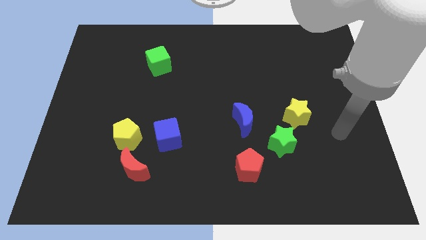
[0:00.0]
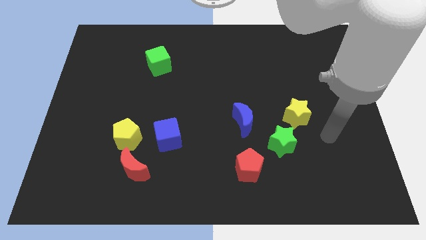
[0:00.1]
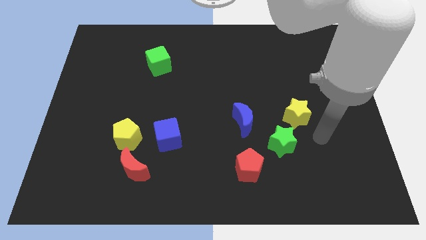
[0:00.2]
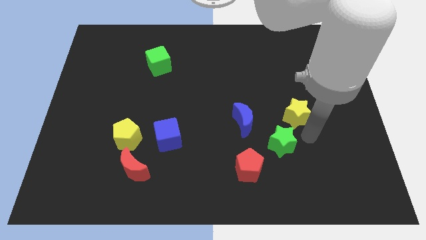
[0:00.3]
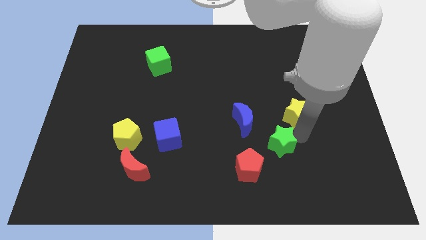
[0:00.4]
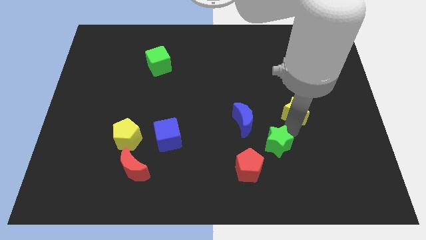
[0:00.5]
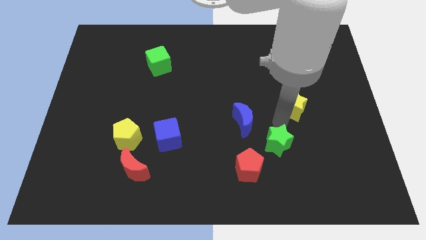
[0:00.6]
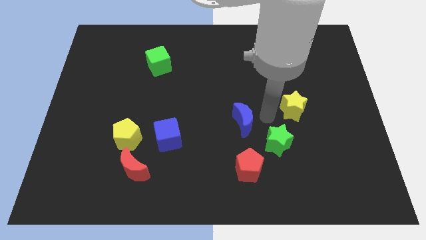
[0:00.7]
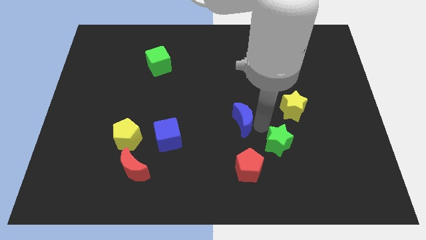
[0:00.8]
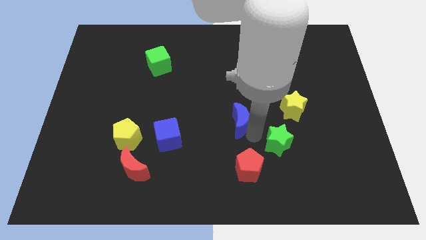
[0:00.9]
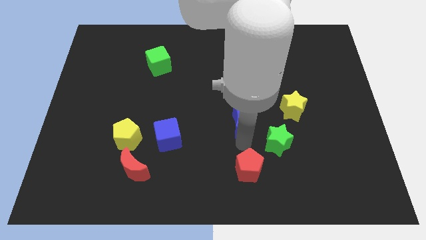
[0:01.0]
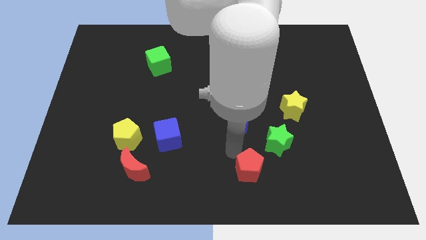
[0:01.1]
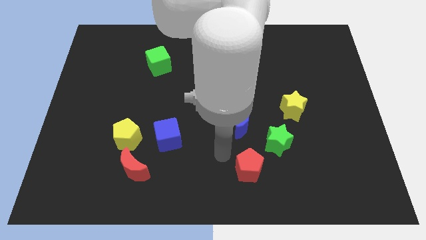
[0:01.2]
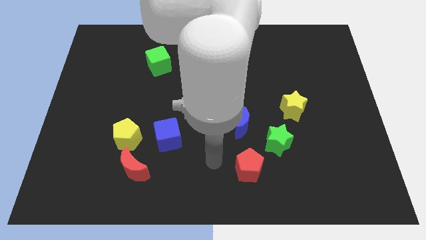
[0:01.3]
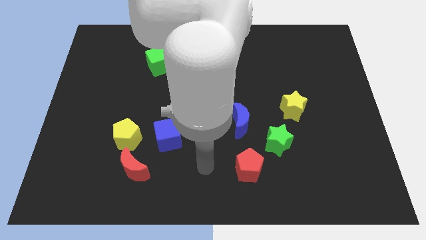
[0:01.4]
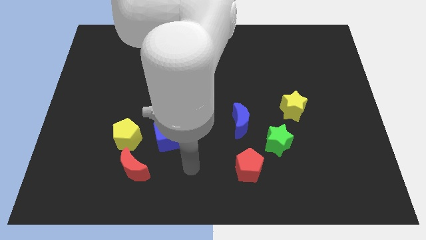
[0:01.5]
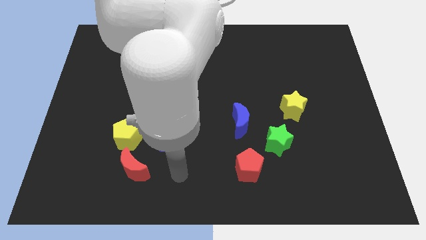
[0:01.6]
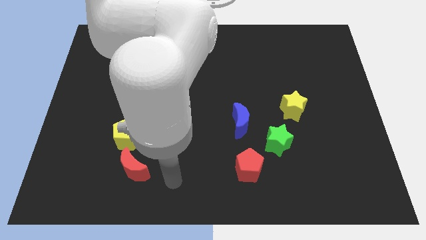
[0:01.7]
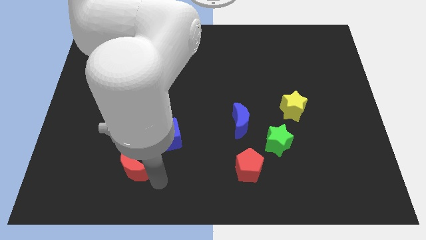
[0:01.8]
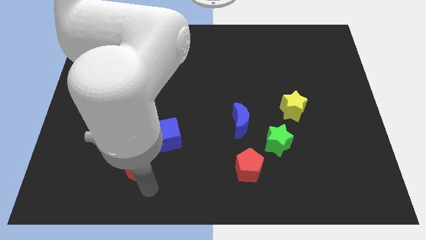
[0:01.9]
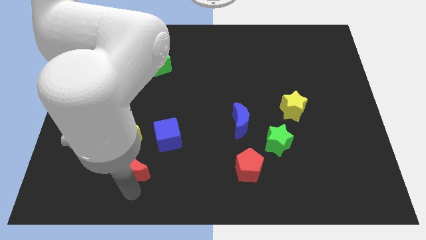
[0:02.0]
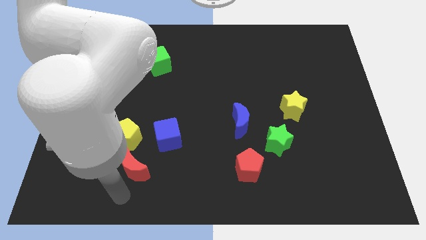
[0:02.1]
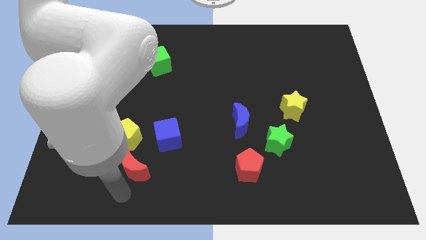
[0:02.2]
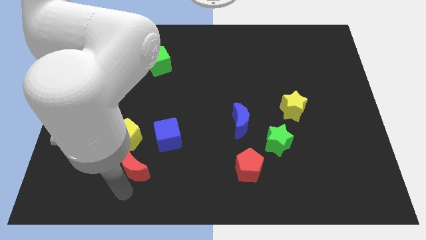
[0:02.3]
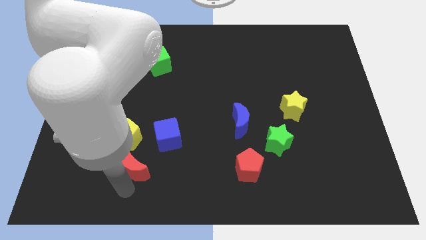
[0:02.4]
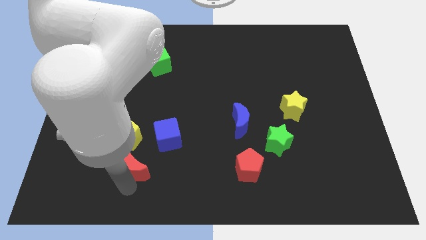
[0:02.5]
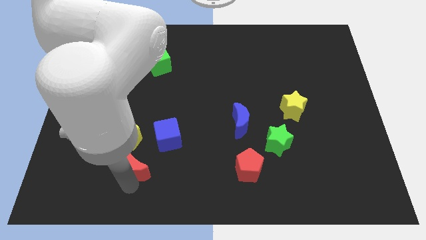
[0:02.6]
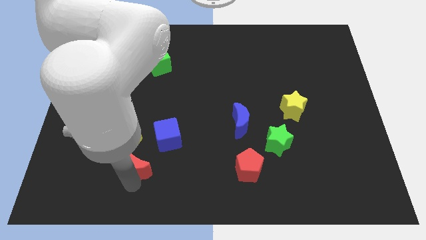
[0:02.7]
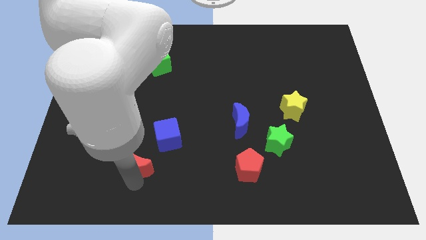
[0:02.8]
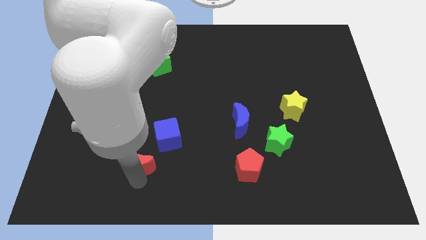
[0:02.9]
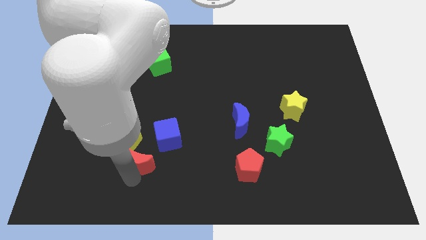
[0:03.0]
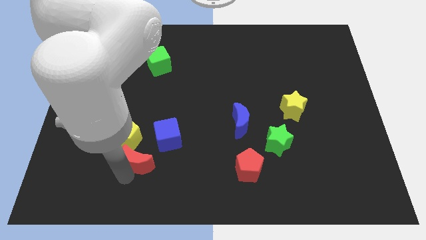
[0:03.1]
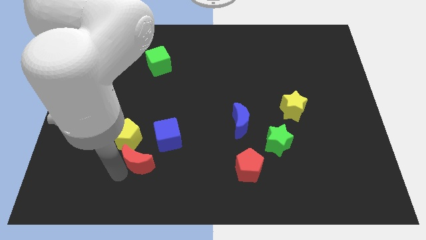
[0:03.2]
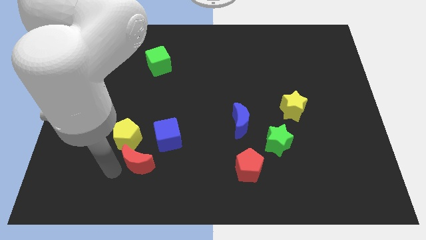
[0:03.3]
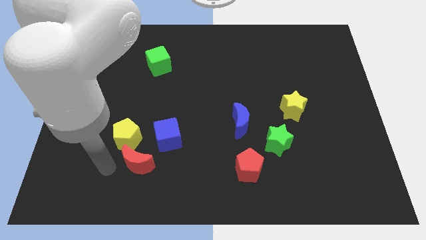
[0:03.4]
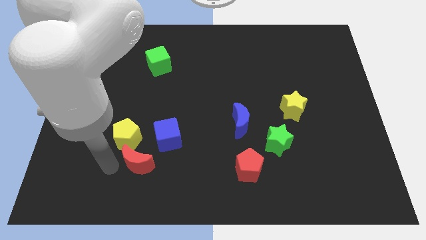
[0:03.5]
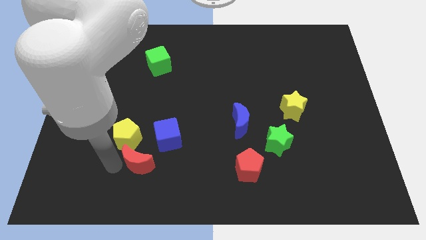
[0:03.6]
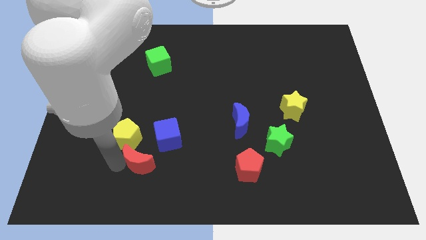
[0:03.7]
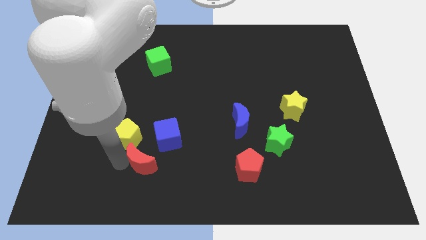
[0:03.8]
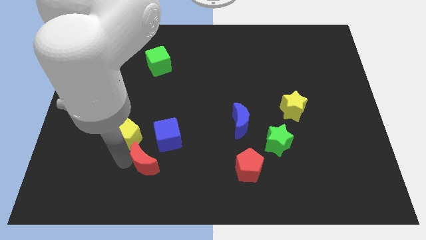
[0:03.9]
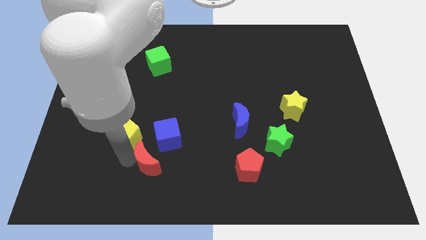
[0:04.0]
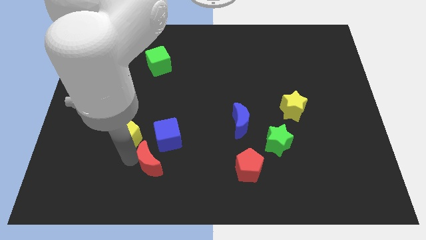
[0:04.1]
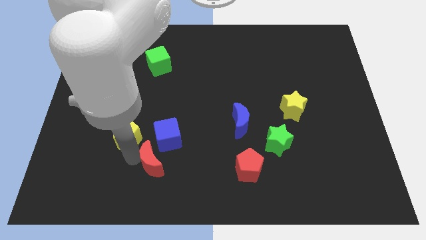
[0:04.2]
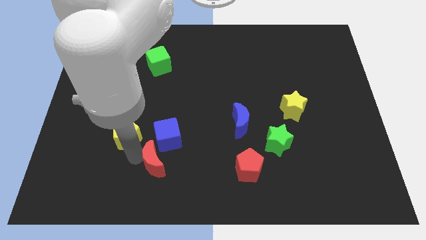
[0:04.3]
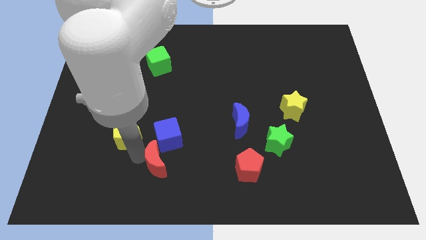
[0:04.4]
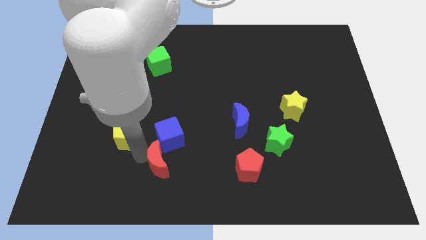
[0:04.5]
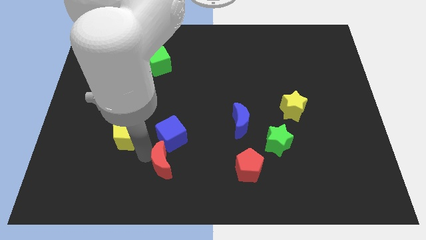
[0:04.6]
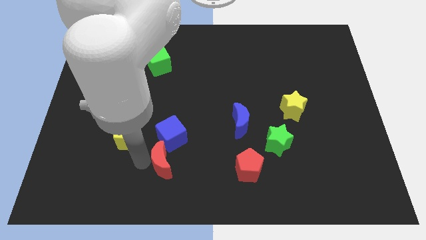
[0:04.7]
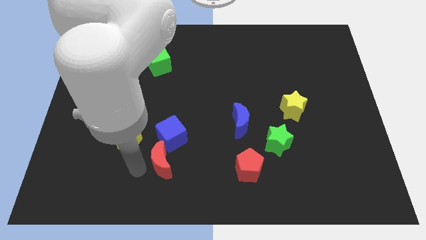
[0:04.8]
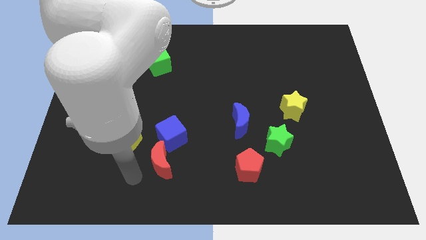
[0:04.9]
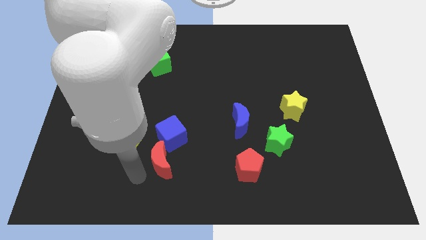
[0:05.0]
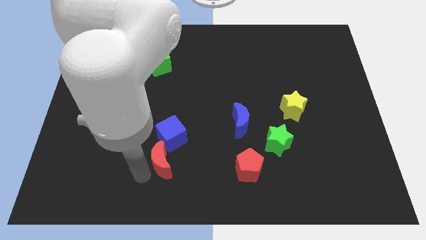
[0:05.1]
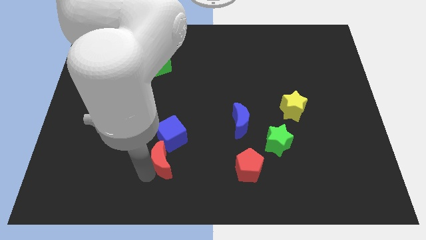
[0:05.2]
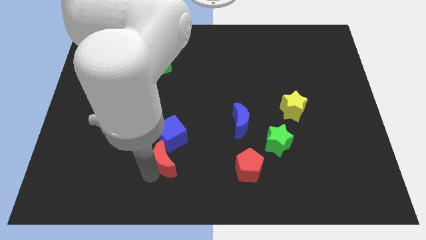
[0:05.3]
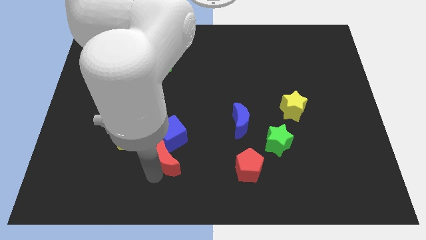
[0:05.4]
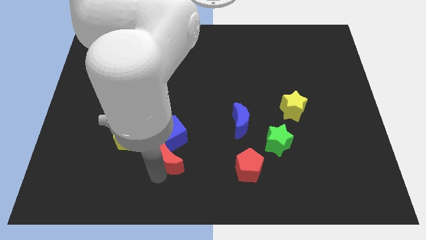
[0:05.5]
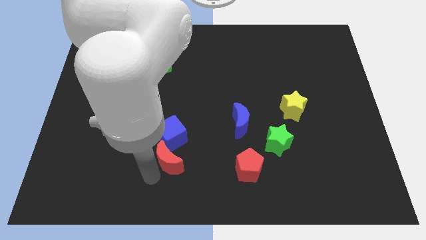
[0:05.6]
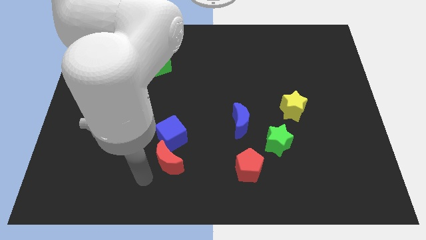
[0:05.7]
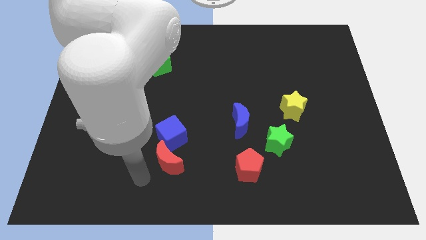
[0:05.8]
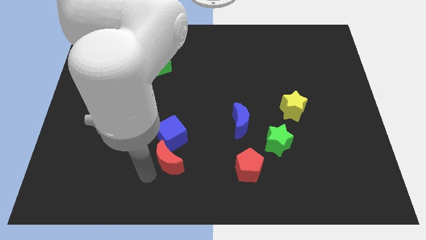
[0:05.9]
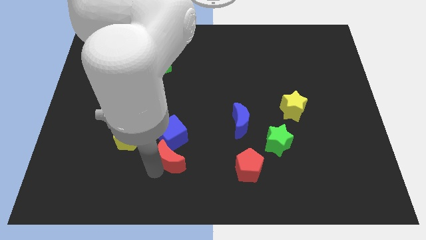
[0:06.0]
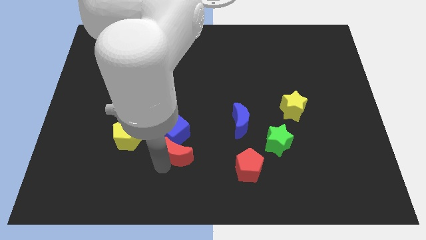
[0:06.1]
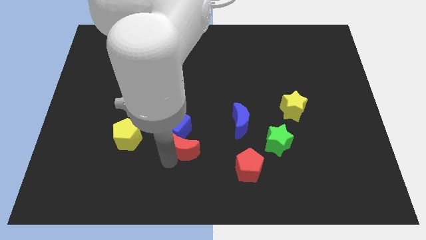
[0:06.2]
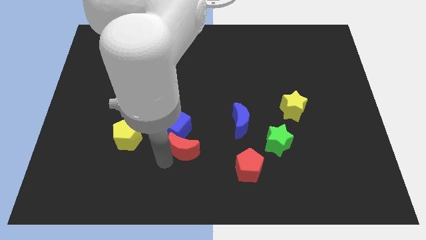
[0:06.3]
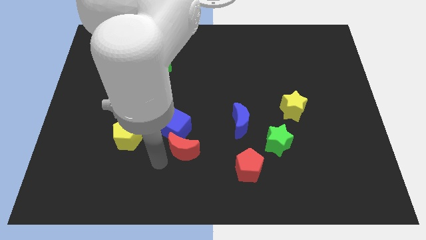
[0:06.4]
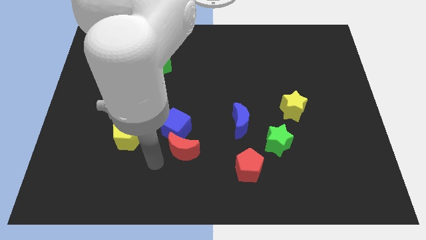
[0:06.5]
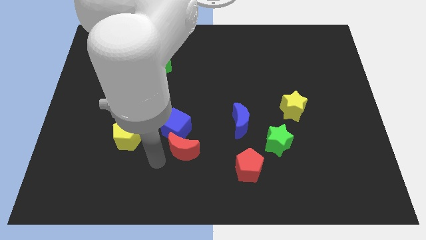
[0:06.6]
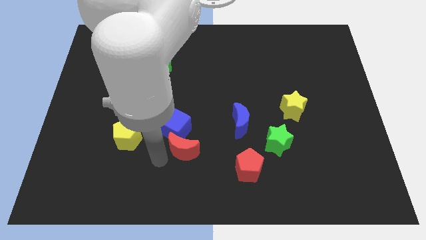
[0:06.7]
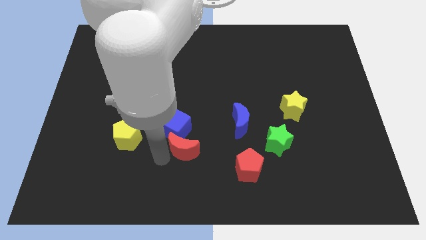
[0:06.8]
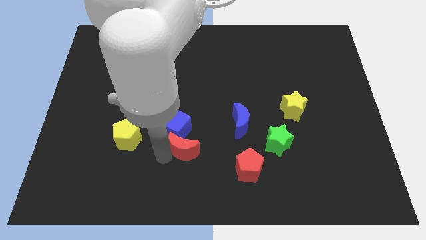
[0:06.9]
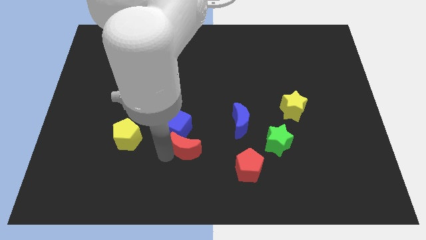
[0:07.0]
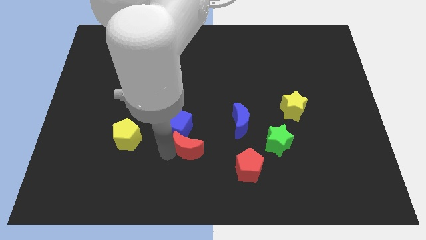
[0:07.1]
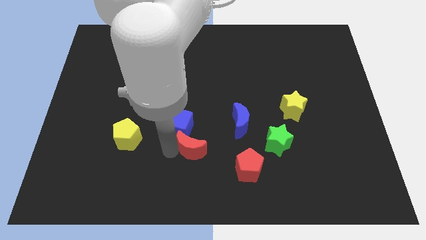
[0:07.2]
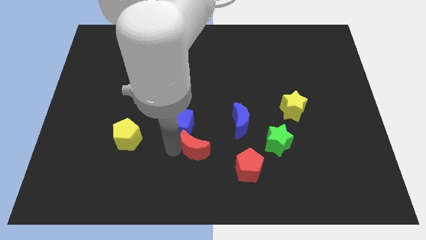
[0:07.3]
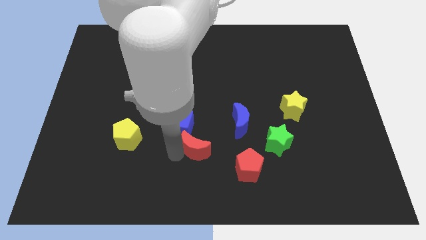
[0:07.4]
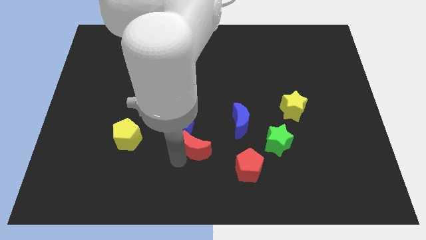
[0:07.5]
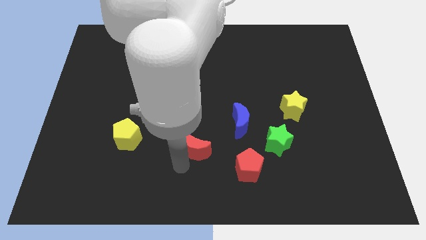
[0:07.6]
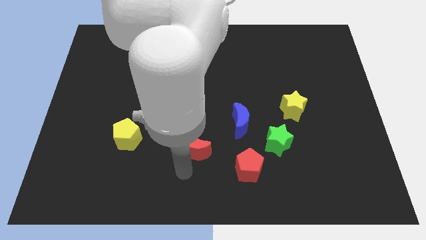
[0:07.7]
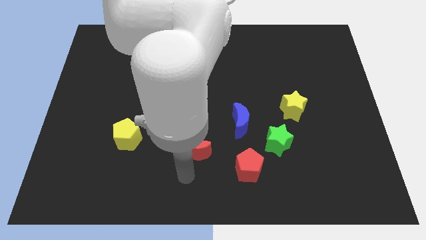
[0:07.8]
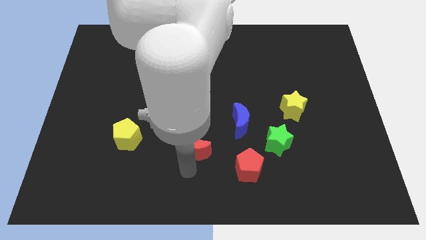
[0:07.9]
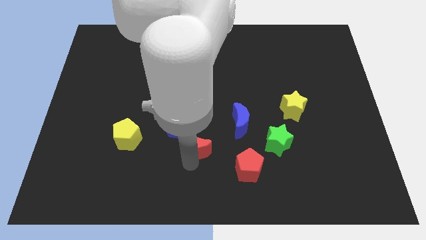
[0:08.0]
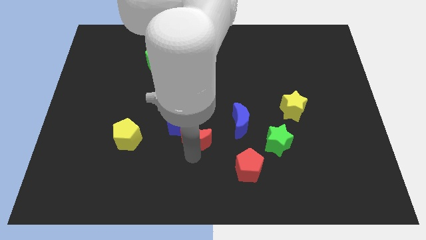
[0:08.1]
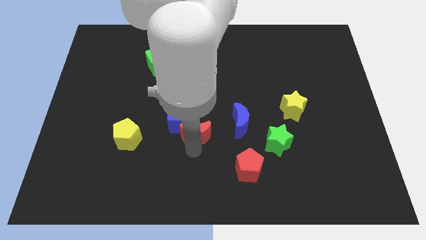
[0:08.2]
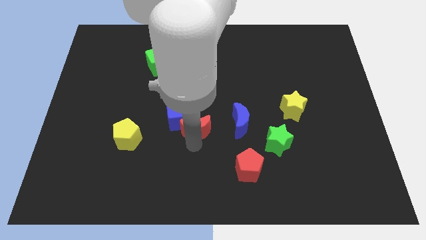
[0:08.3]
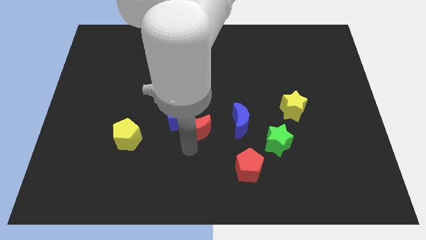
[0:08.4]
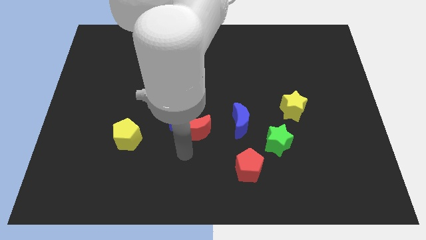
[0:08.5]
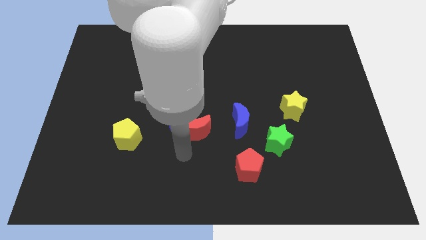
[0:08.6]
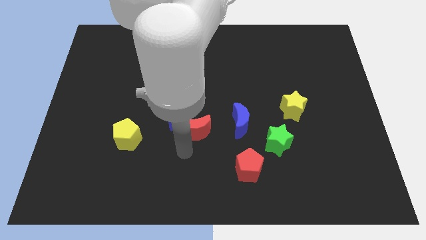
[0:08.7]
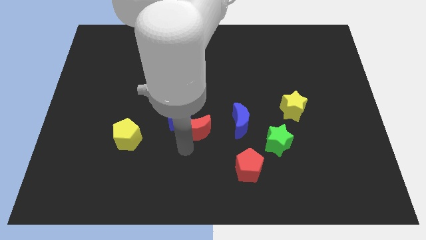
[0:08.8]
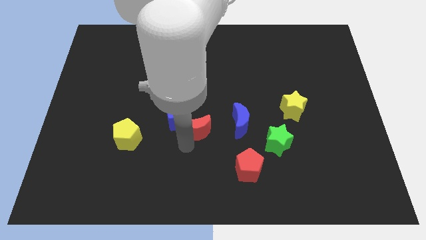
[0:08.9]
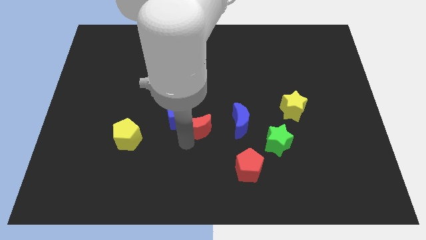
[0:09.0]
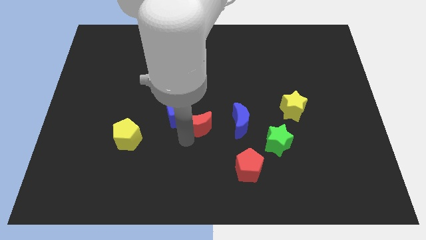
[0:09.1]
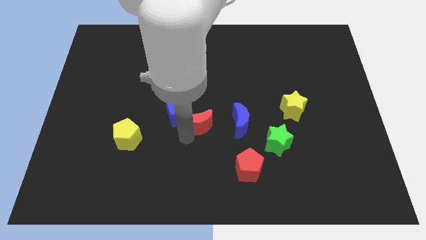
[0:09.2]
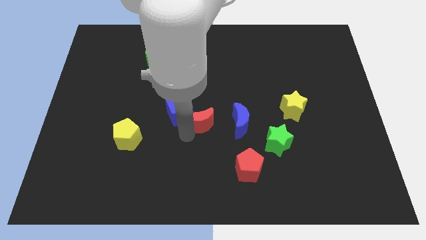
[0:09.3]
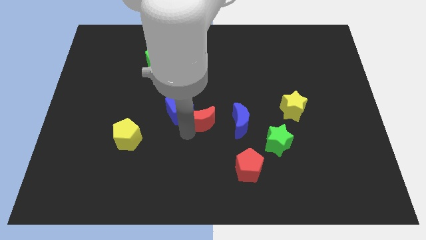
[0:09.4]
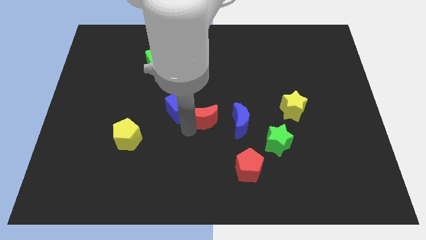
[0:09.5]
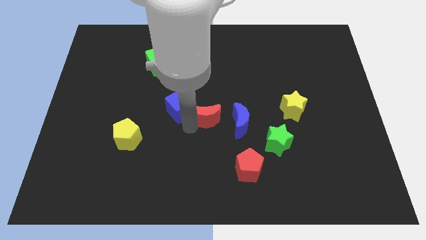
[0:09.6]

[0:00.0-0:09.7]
push the red moon upwards and to the right
